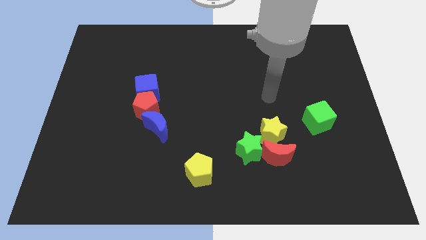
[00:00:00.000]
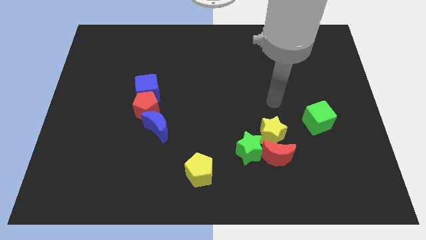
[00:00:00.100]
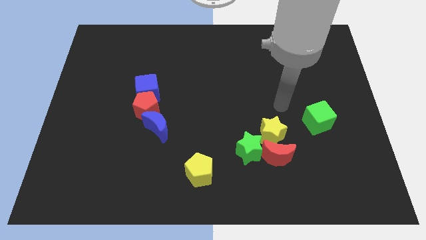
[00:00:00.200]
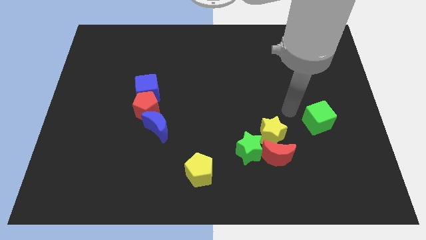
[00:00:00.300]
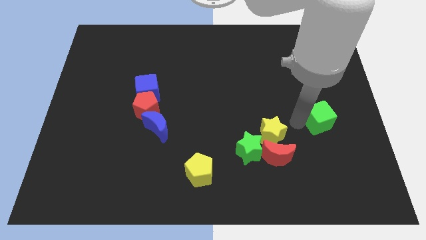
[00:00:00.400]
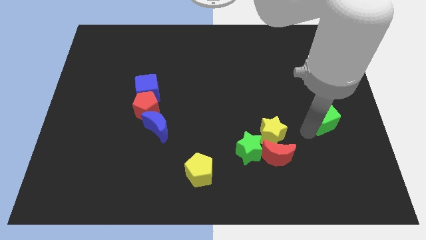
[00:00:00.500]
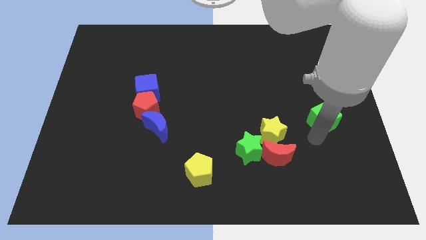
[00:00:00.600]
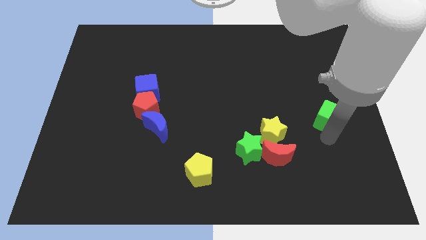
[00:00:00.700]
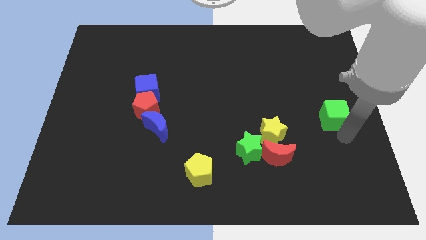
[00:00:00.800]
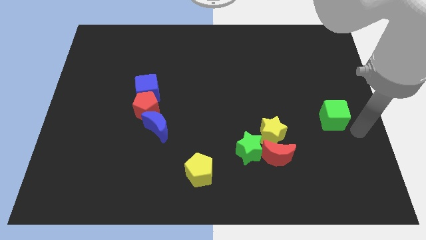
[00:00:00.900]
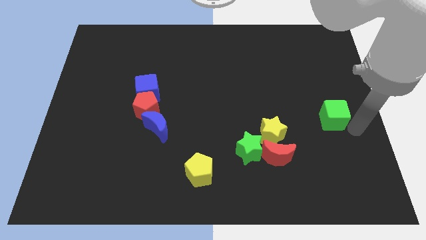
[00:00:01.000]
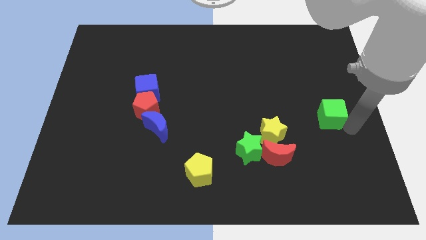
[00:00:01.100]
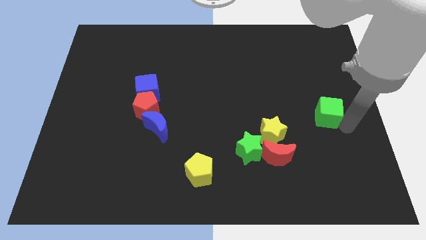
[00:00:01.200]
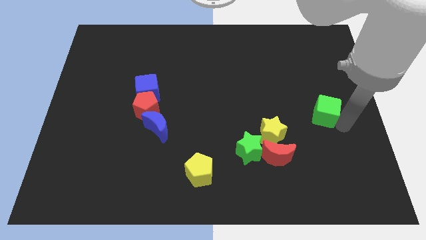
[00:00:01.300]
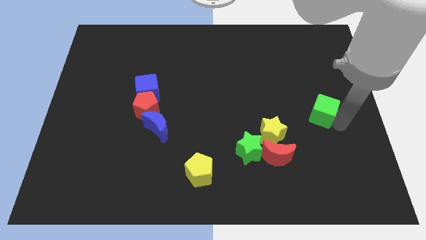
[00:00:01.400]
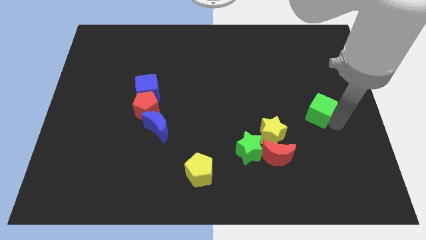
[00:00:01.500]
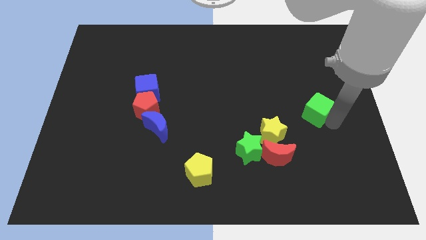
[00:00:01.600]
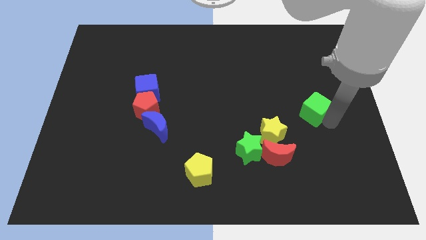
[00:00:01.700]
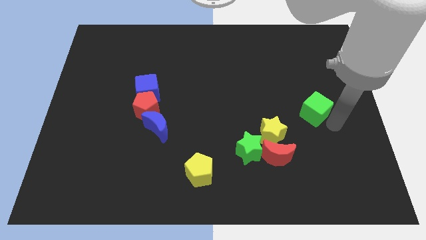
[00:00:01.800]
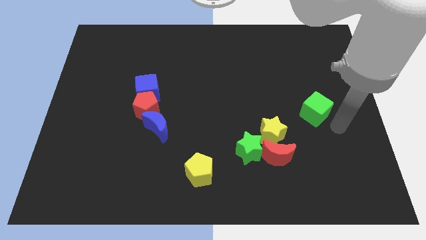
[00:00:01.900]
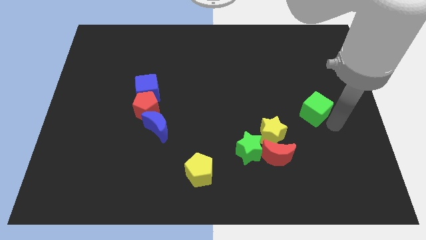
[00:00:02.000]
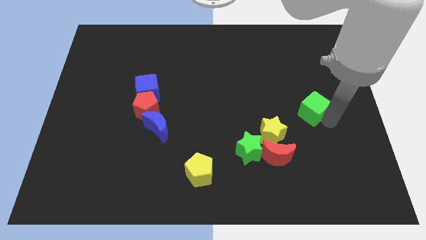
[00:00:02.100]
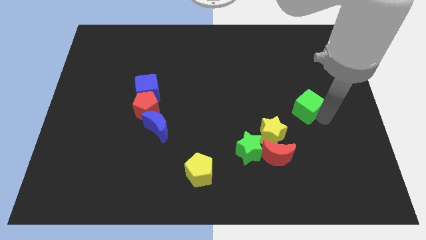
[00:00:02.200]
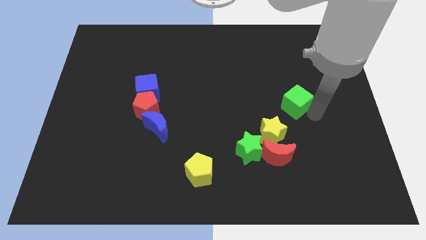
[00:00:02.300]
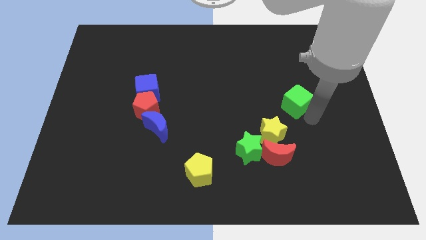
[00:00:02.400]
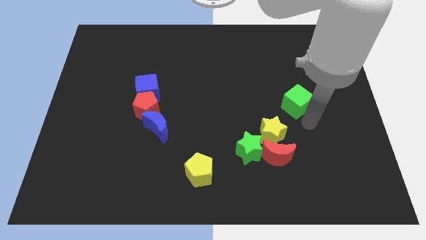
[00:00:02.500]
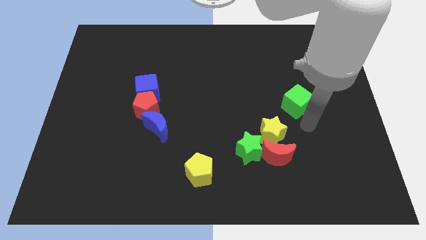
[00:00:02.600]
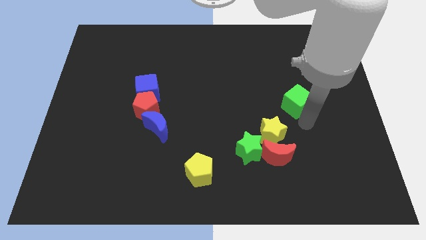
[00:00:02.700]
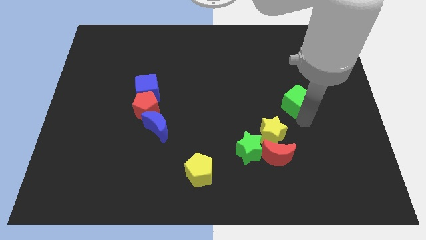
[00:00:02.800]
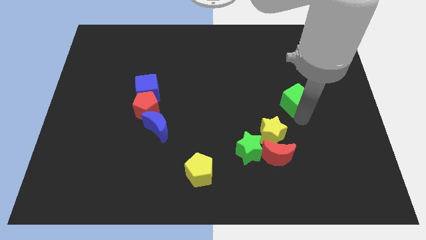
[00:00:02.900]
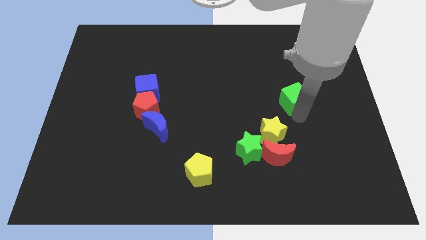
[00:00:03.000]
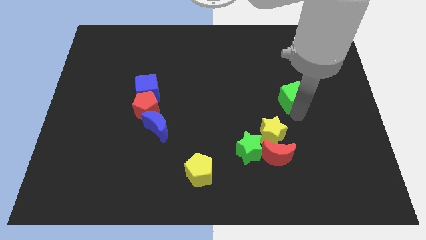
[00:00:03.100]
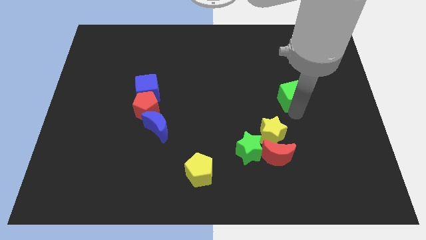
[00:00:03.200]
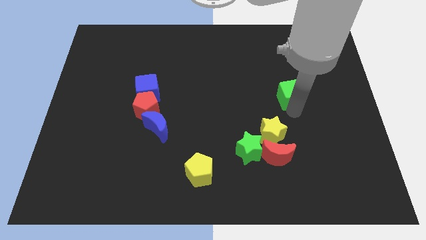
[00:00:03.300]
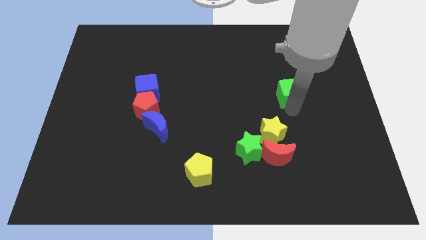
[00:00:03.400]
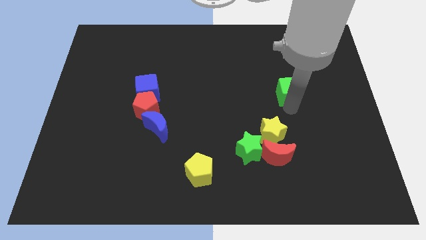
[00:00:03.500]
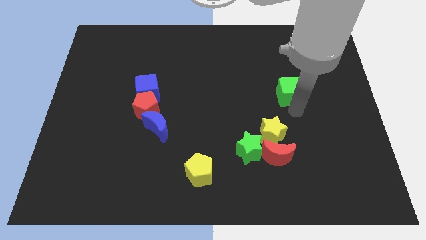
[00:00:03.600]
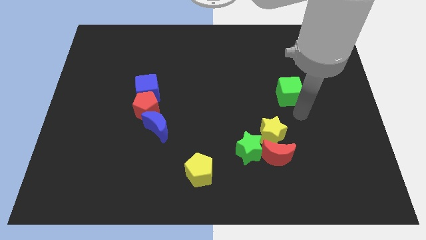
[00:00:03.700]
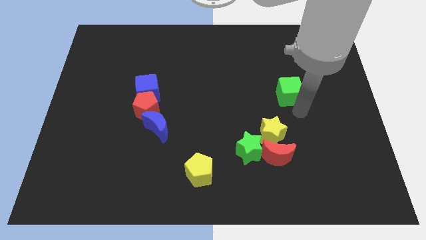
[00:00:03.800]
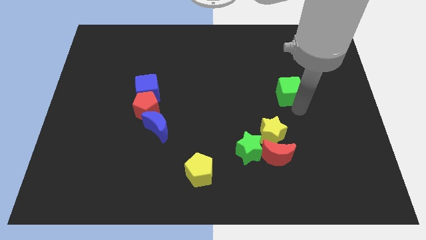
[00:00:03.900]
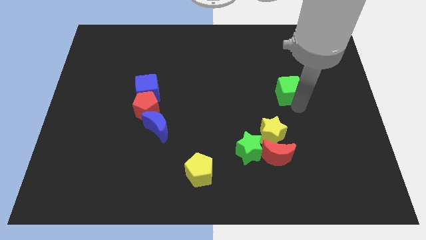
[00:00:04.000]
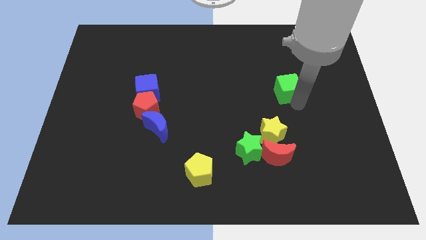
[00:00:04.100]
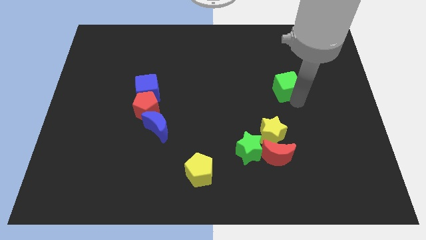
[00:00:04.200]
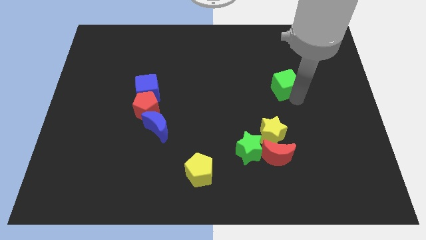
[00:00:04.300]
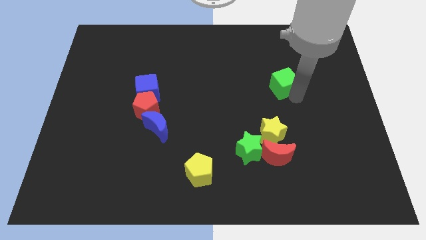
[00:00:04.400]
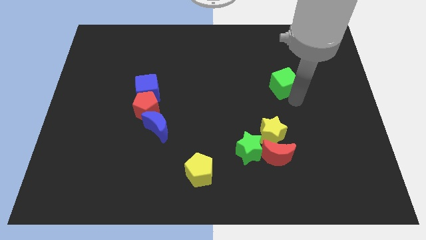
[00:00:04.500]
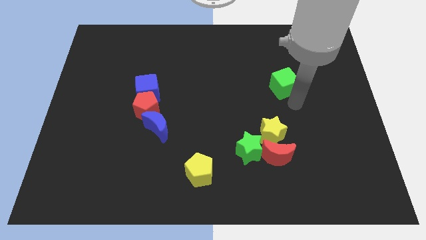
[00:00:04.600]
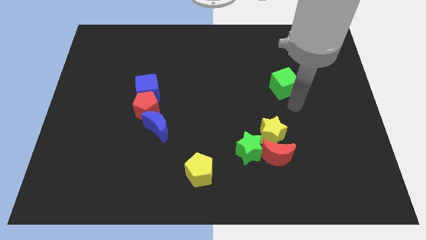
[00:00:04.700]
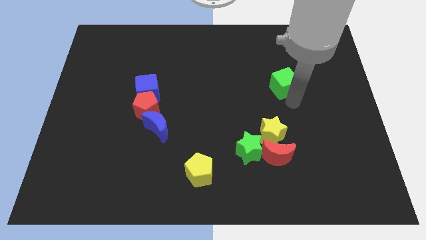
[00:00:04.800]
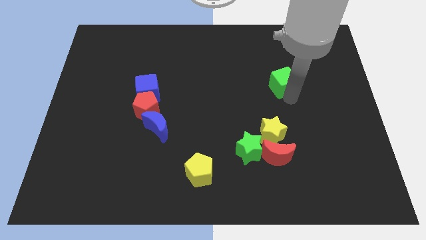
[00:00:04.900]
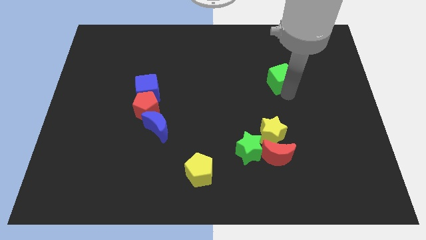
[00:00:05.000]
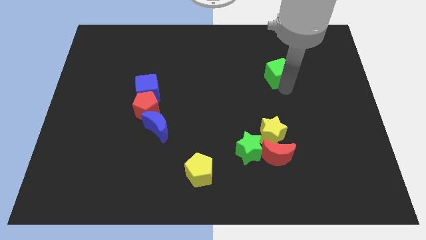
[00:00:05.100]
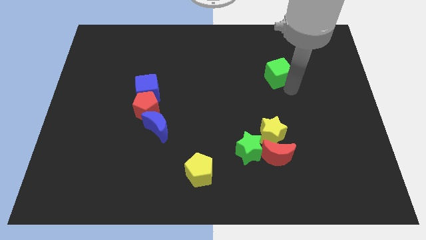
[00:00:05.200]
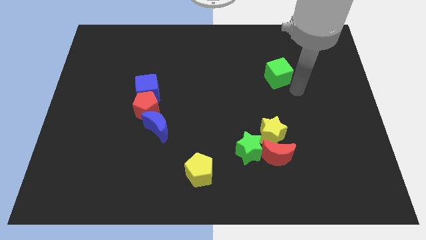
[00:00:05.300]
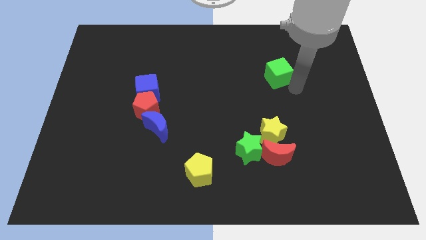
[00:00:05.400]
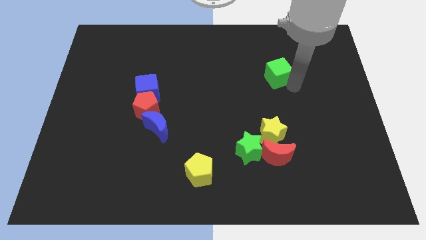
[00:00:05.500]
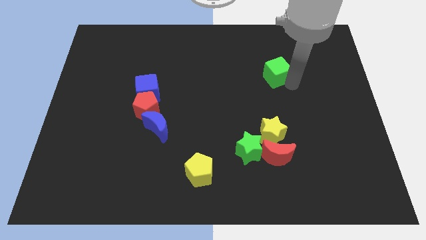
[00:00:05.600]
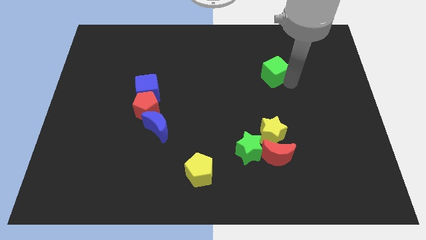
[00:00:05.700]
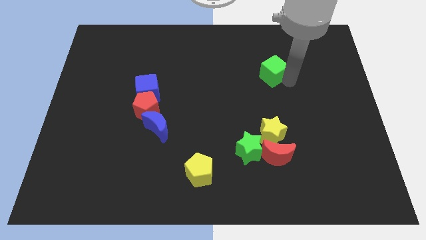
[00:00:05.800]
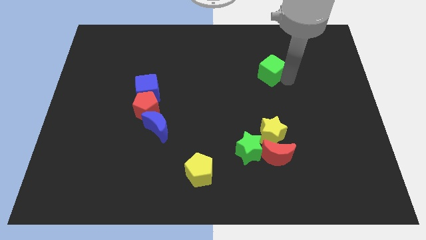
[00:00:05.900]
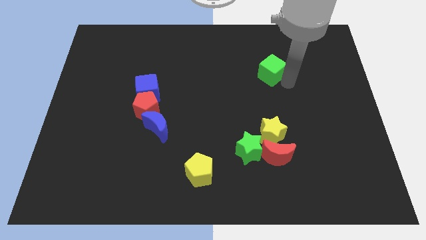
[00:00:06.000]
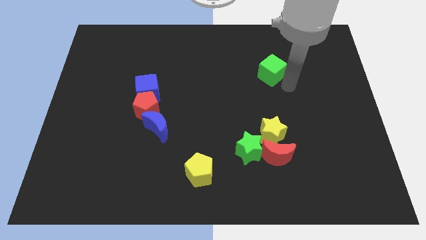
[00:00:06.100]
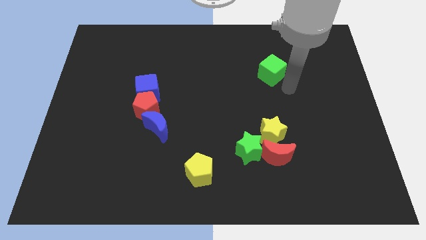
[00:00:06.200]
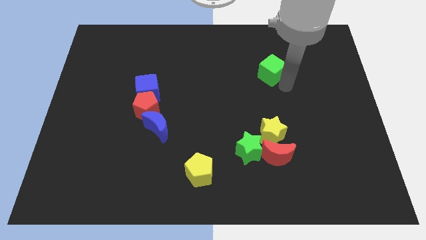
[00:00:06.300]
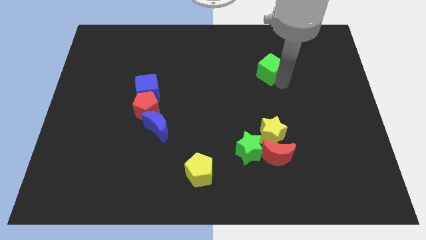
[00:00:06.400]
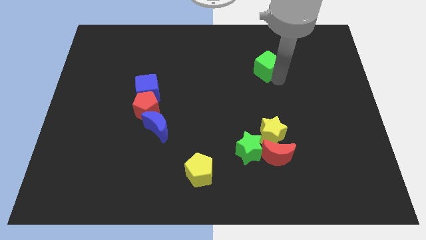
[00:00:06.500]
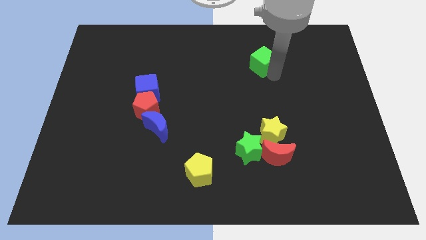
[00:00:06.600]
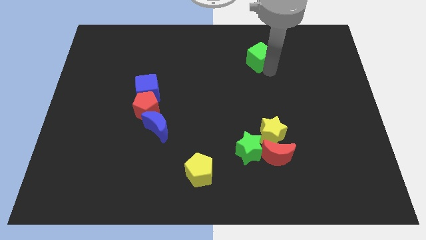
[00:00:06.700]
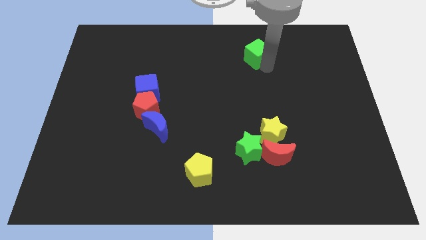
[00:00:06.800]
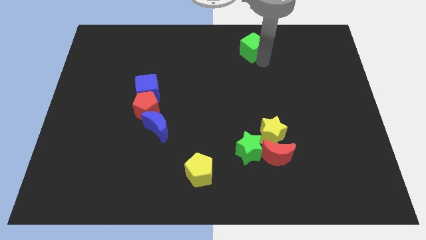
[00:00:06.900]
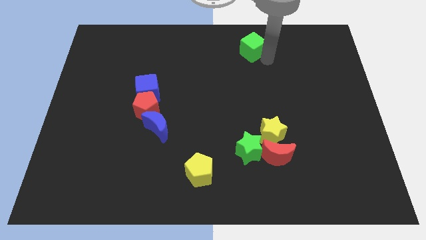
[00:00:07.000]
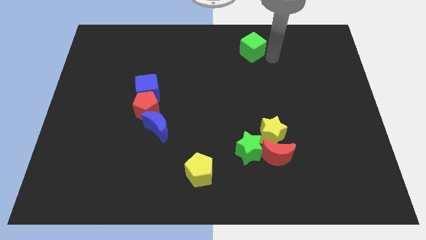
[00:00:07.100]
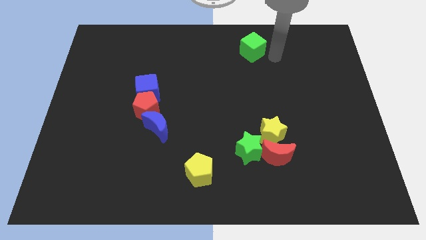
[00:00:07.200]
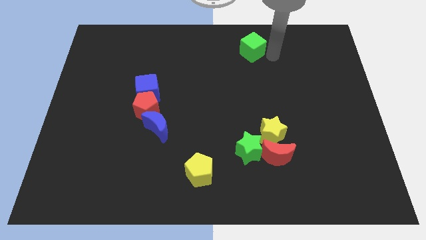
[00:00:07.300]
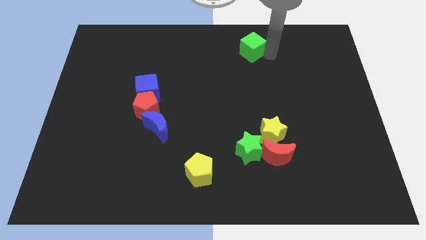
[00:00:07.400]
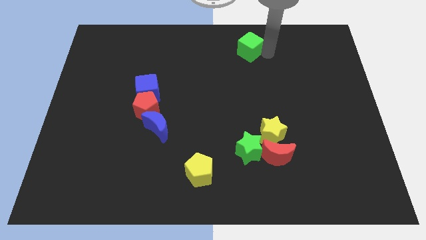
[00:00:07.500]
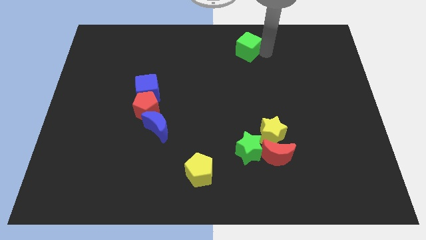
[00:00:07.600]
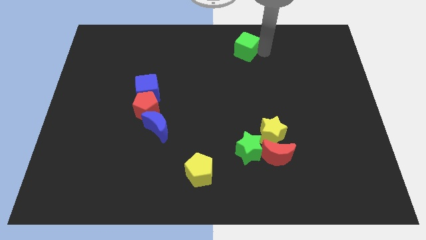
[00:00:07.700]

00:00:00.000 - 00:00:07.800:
slide the green cube to the top side
